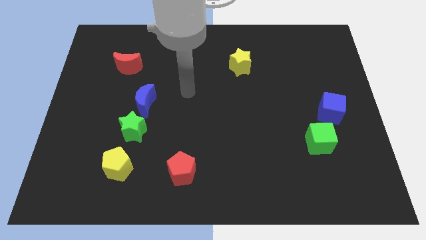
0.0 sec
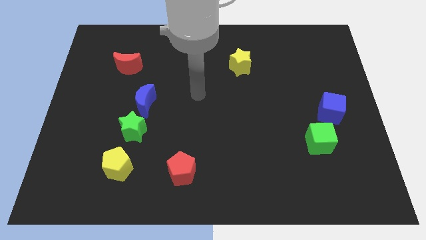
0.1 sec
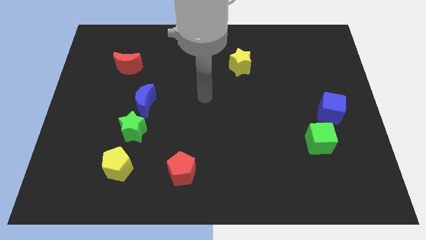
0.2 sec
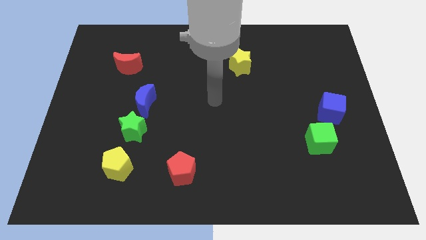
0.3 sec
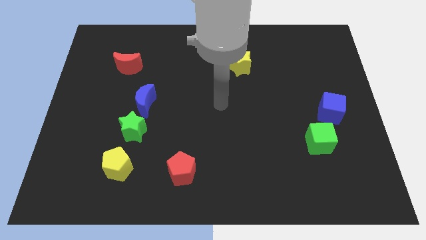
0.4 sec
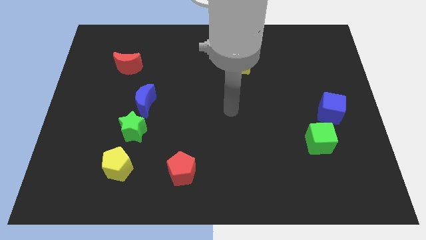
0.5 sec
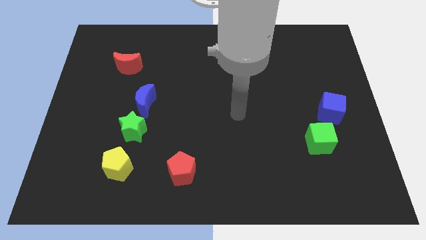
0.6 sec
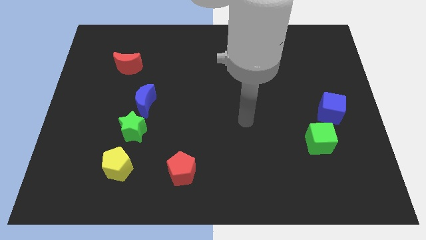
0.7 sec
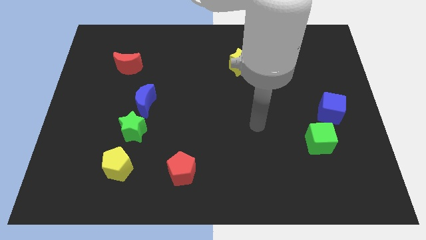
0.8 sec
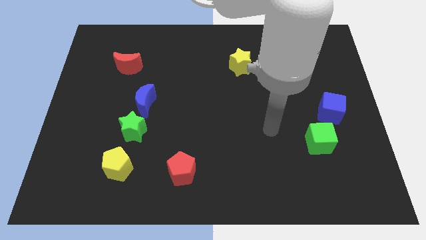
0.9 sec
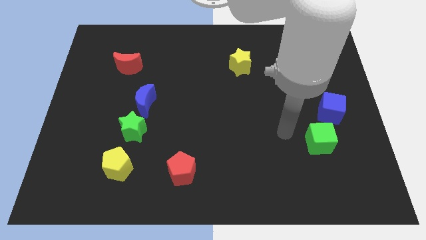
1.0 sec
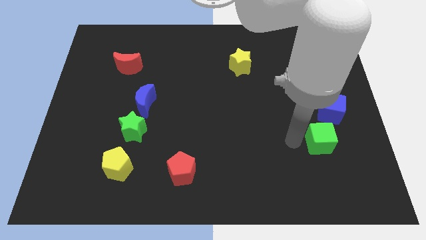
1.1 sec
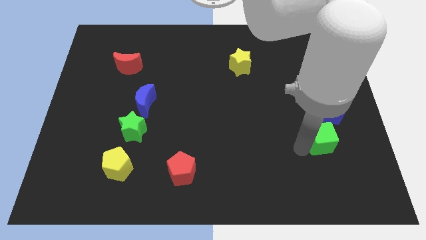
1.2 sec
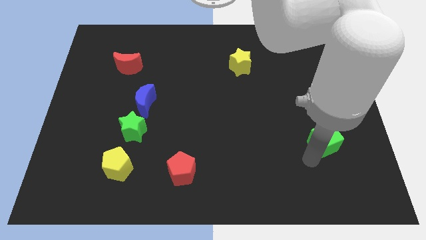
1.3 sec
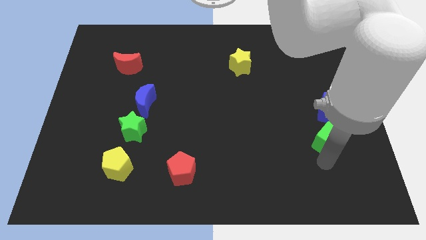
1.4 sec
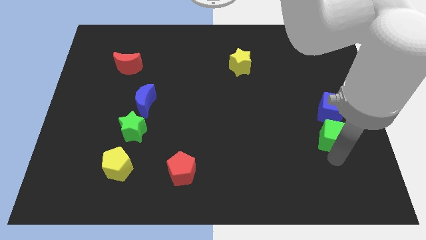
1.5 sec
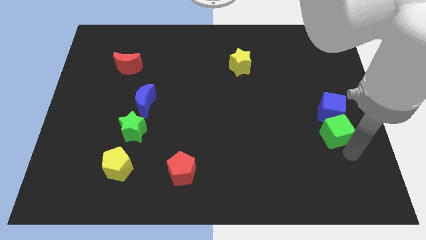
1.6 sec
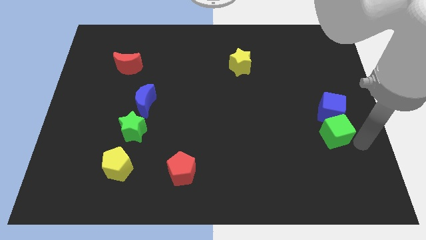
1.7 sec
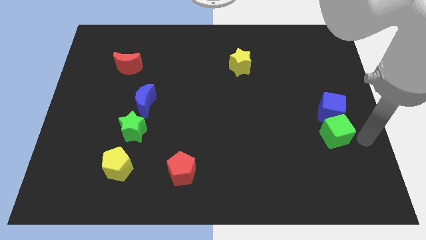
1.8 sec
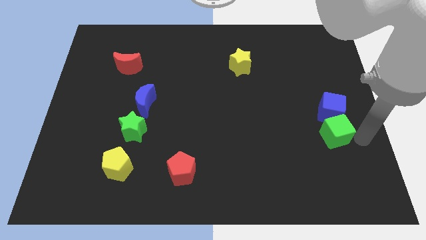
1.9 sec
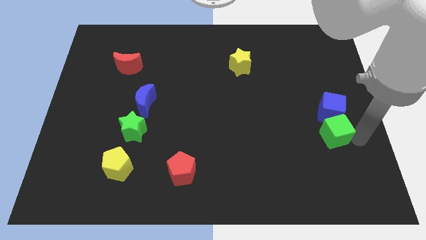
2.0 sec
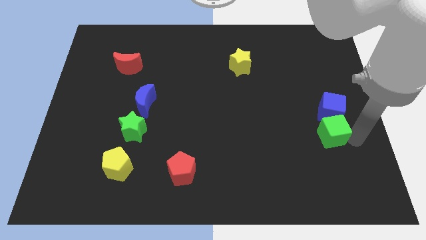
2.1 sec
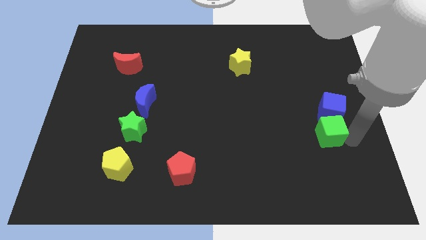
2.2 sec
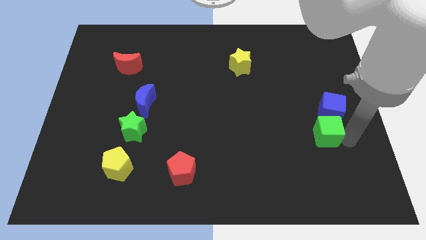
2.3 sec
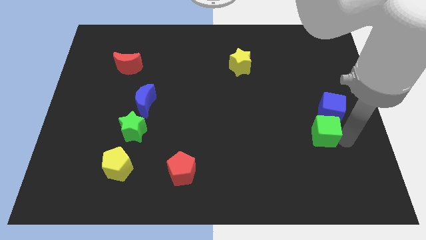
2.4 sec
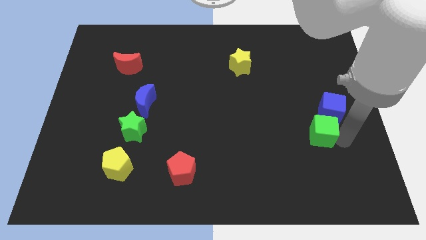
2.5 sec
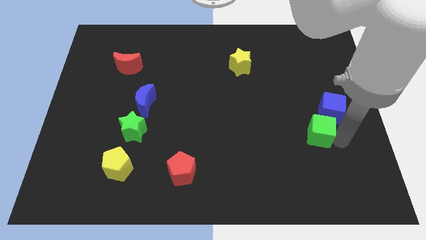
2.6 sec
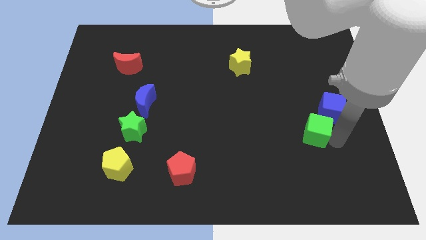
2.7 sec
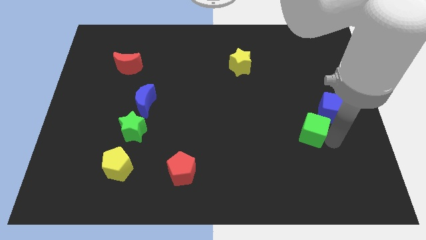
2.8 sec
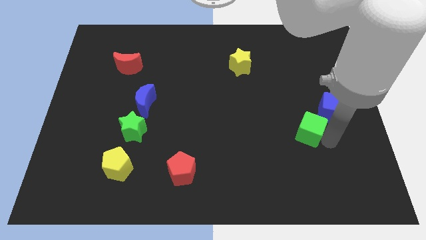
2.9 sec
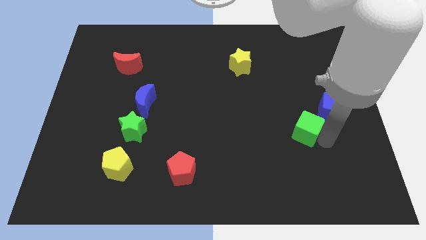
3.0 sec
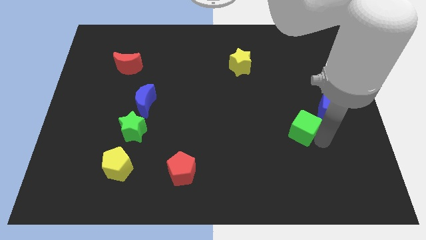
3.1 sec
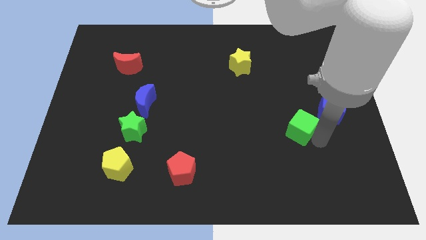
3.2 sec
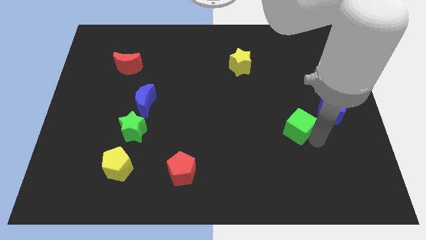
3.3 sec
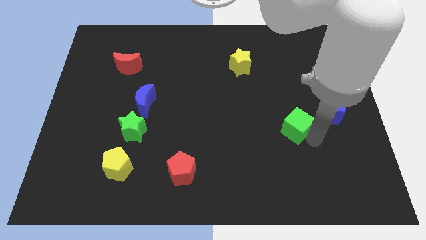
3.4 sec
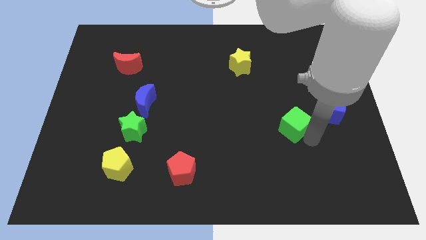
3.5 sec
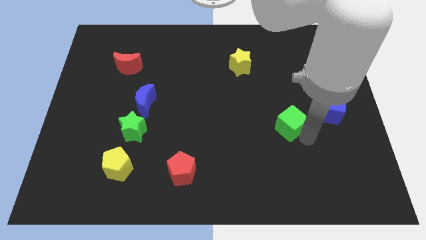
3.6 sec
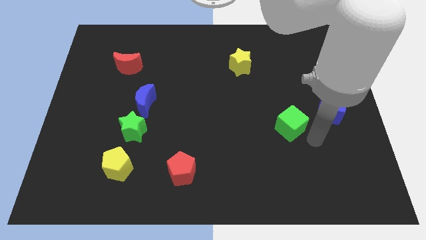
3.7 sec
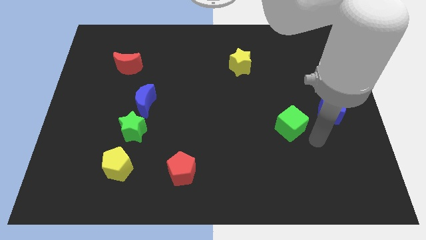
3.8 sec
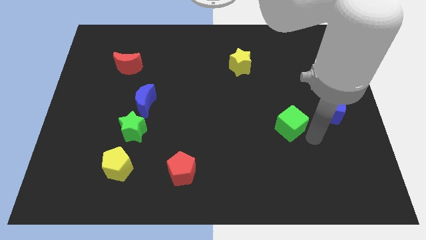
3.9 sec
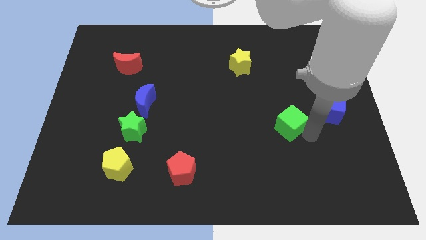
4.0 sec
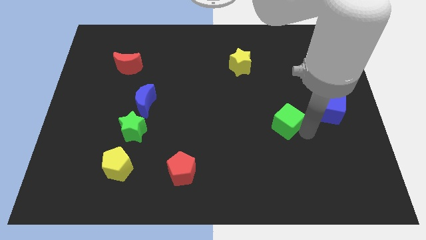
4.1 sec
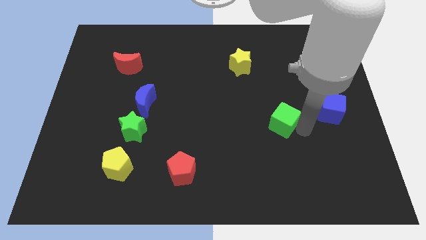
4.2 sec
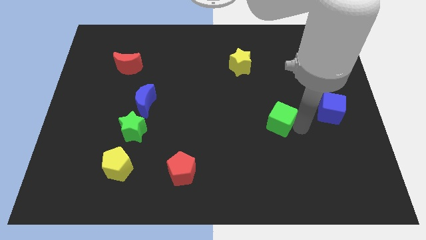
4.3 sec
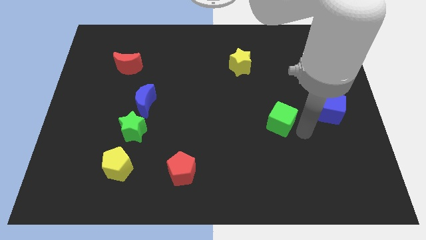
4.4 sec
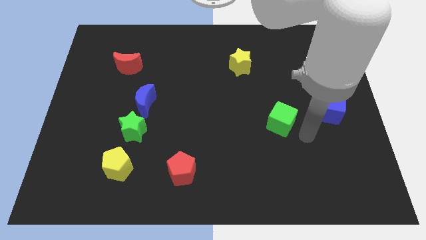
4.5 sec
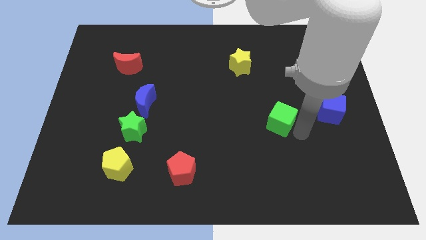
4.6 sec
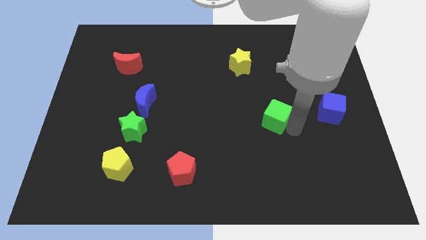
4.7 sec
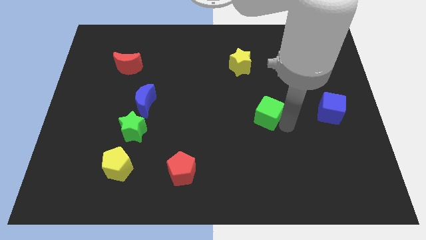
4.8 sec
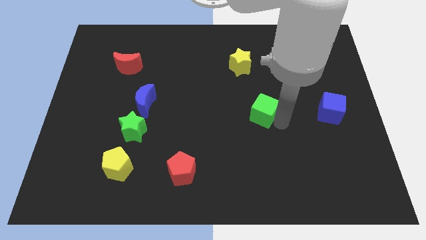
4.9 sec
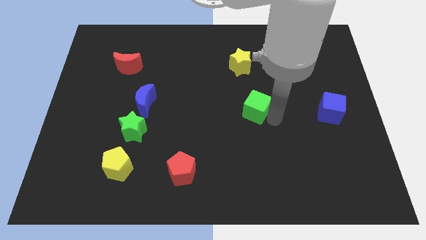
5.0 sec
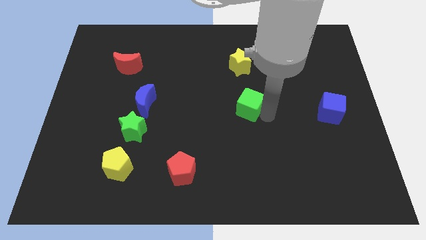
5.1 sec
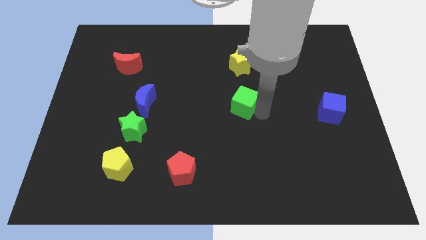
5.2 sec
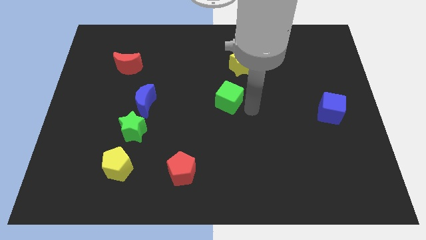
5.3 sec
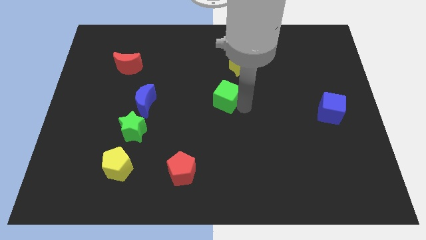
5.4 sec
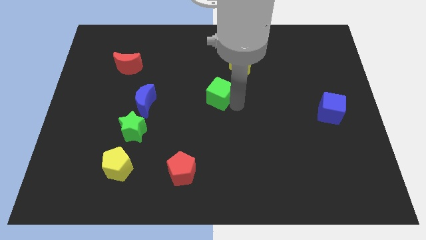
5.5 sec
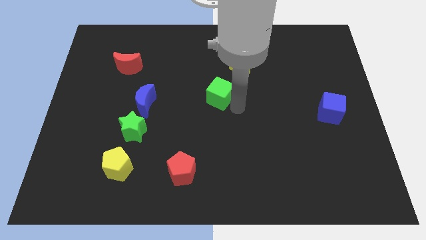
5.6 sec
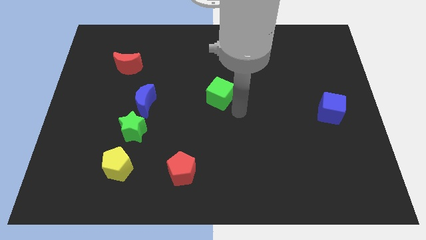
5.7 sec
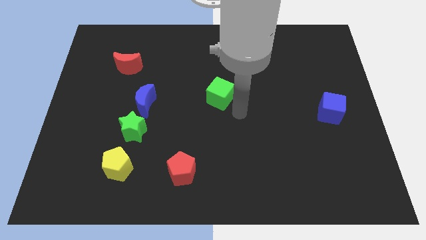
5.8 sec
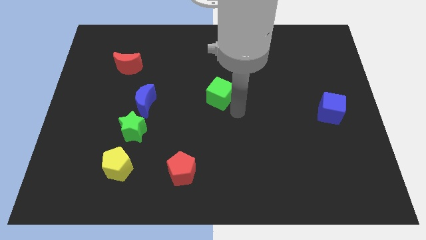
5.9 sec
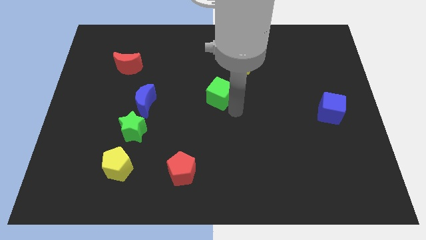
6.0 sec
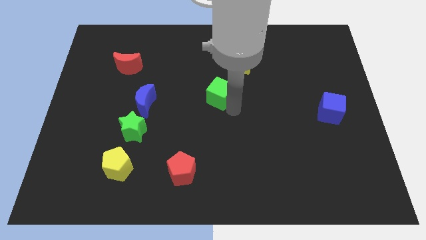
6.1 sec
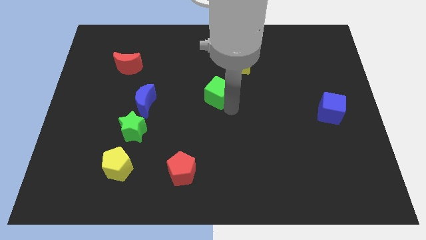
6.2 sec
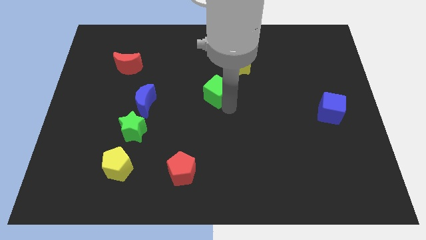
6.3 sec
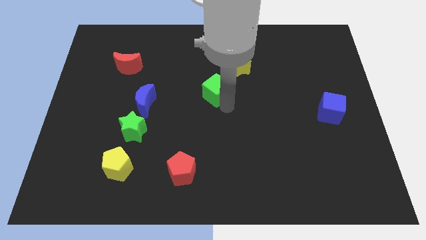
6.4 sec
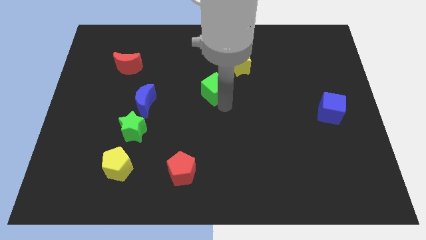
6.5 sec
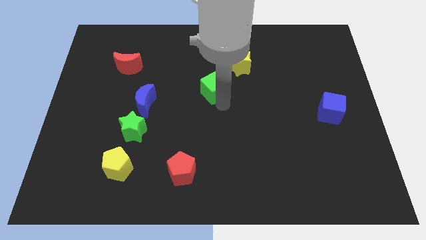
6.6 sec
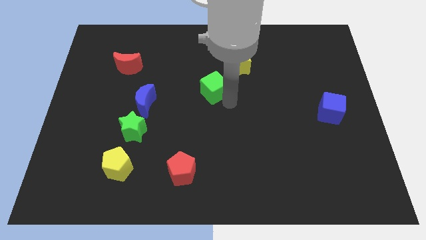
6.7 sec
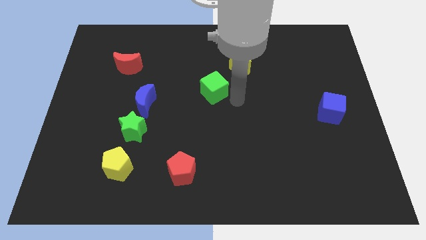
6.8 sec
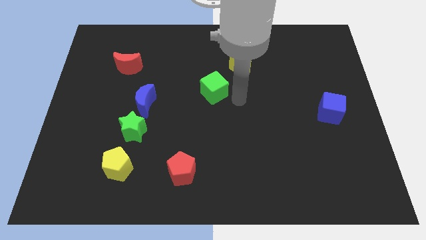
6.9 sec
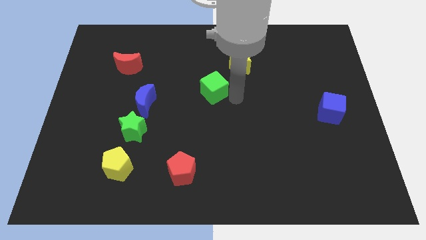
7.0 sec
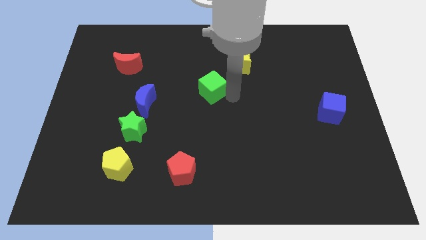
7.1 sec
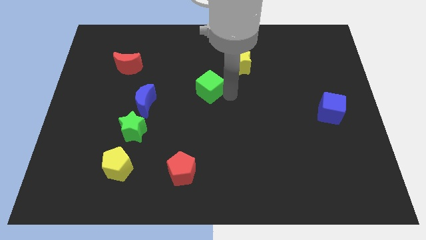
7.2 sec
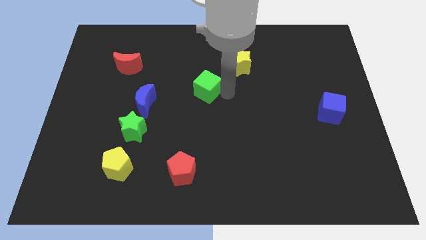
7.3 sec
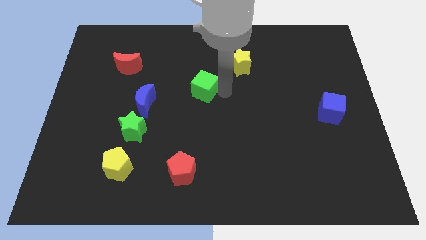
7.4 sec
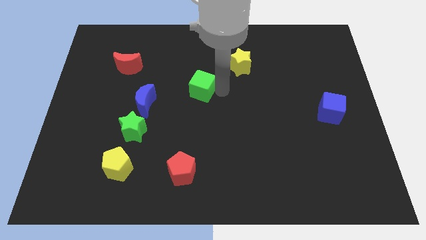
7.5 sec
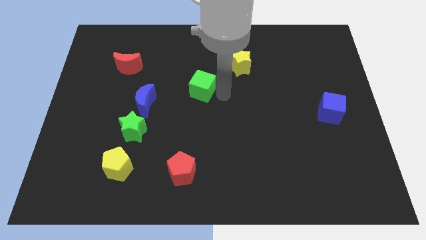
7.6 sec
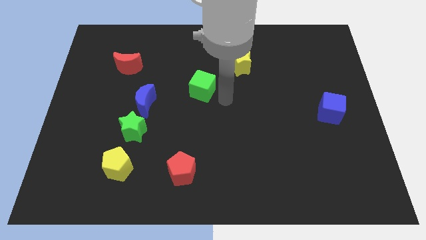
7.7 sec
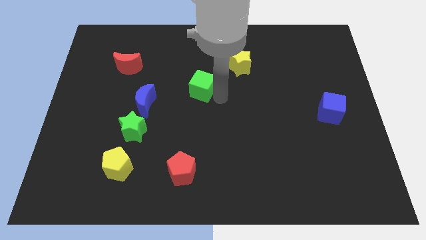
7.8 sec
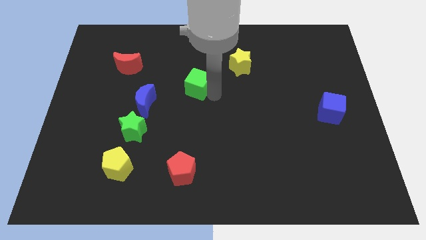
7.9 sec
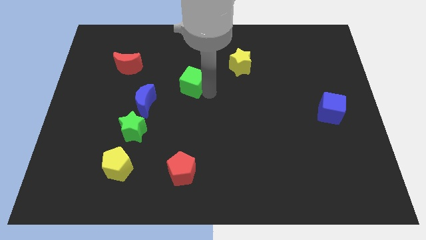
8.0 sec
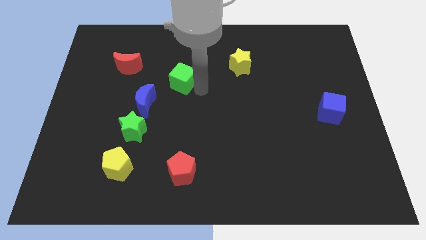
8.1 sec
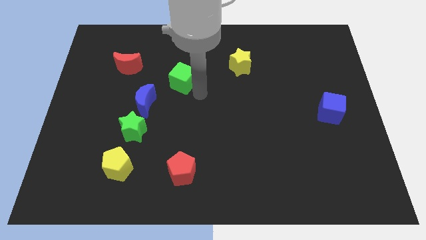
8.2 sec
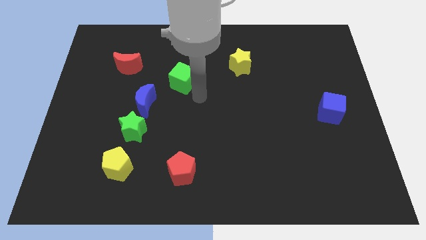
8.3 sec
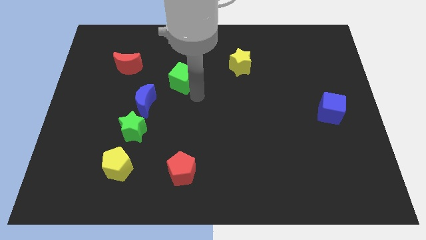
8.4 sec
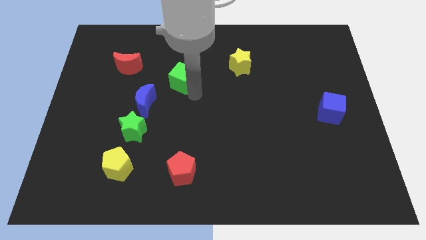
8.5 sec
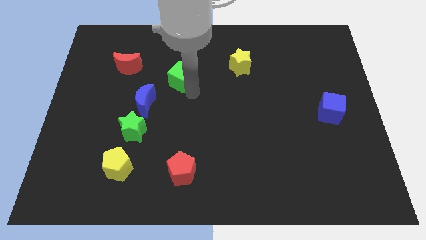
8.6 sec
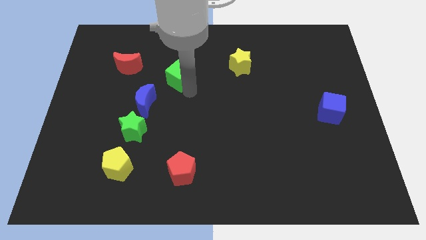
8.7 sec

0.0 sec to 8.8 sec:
move the green cube to the right side of the red moon
